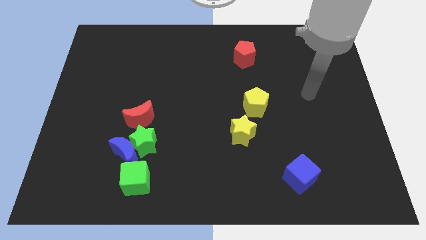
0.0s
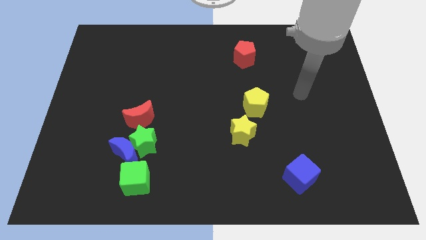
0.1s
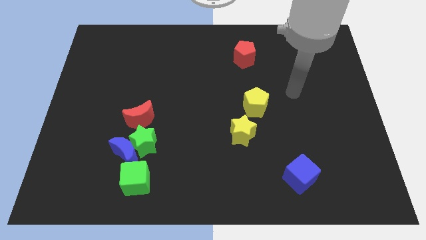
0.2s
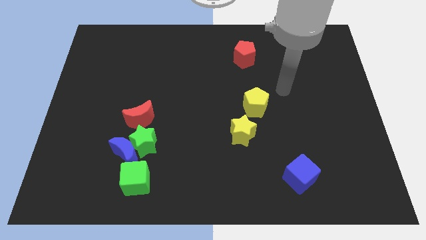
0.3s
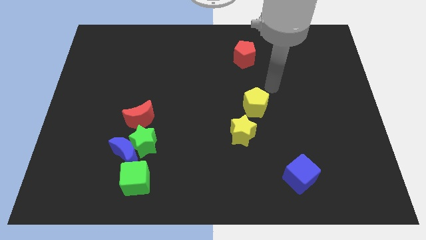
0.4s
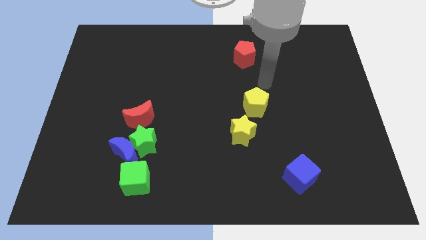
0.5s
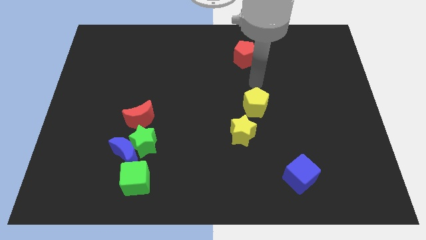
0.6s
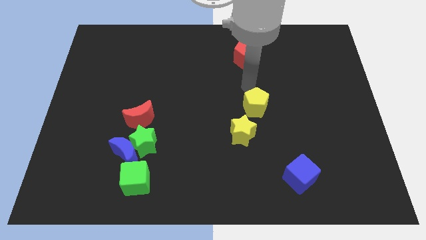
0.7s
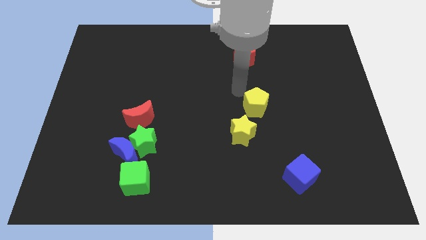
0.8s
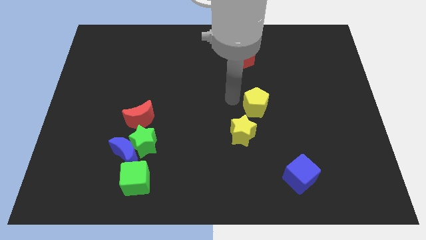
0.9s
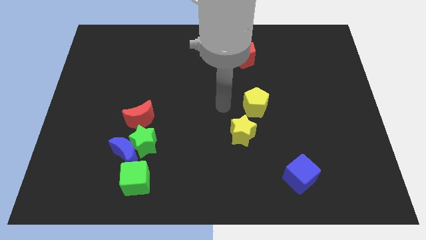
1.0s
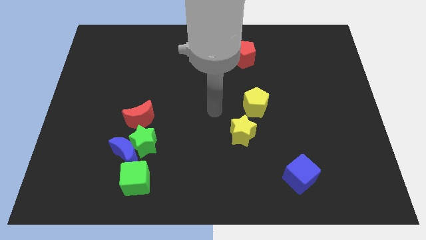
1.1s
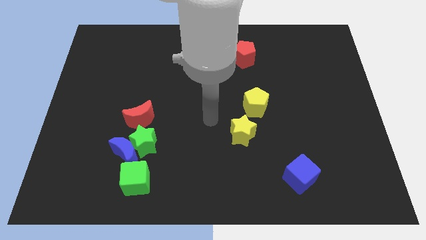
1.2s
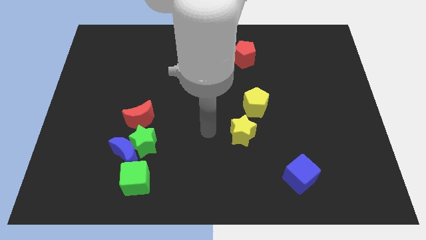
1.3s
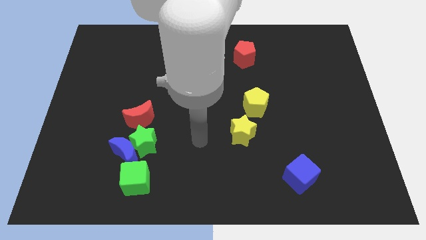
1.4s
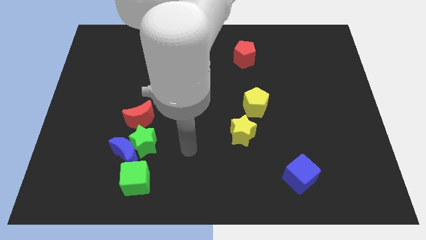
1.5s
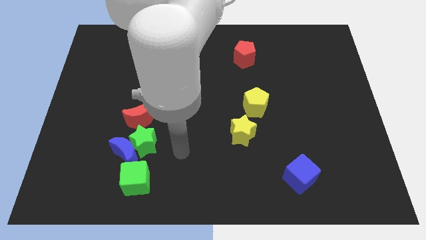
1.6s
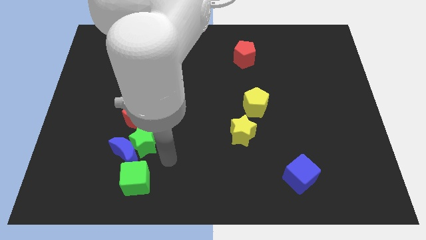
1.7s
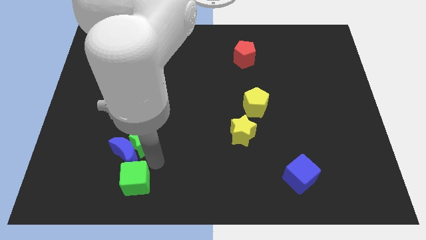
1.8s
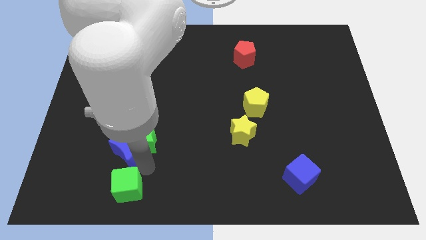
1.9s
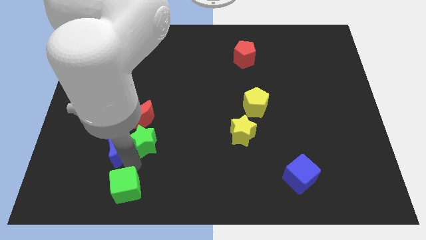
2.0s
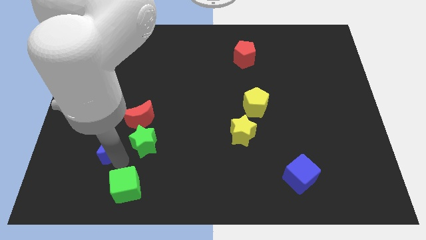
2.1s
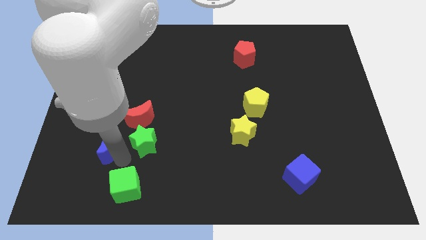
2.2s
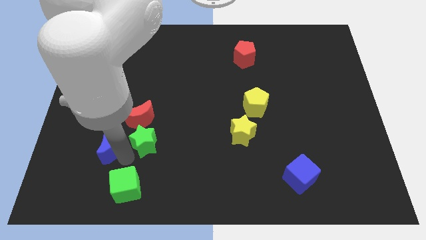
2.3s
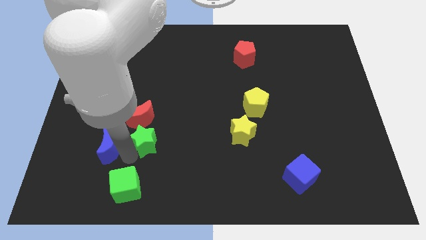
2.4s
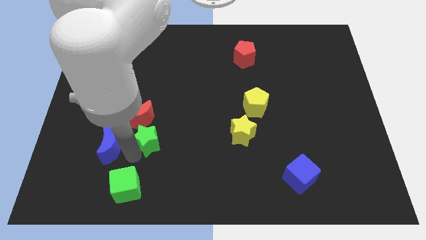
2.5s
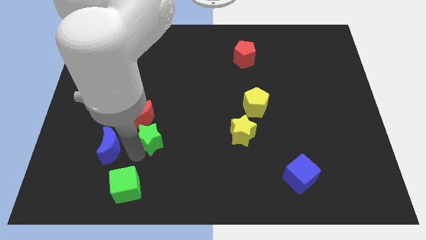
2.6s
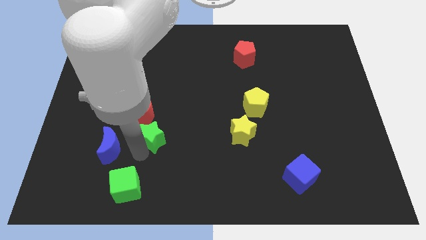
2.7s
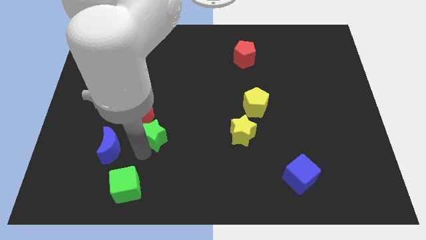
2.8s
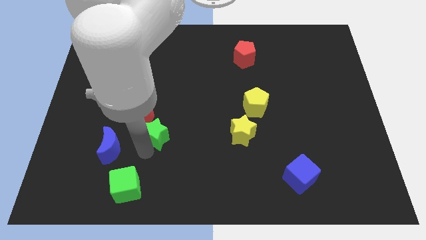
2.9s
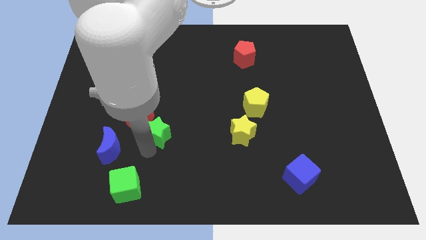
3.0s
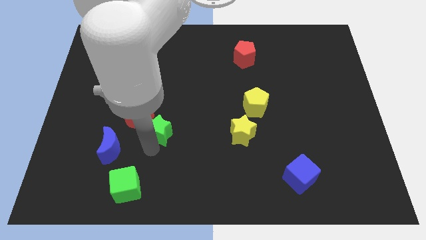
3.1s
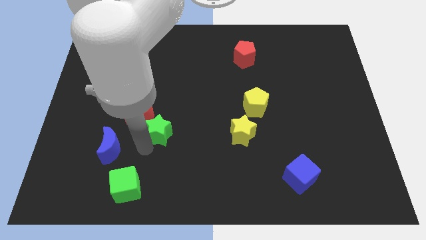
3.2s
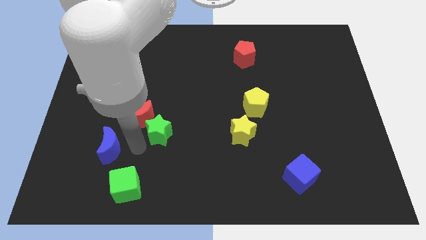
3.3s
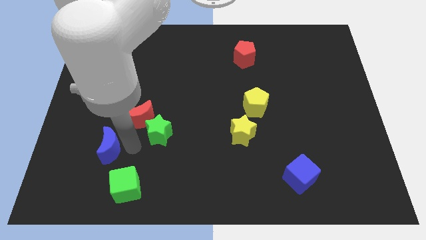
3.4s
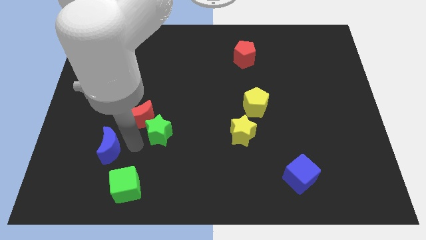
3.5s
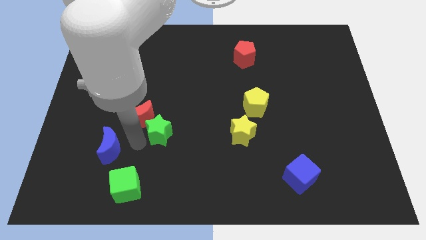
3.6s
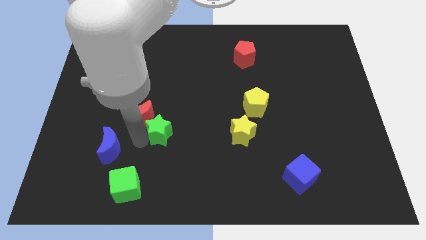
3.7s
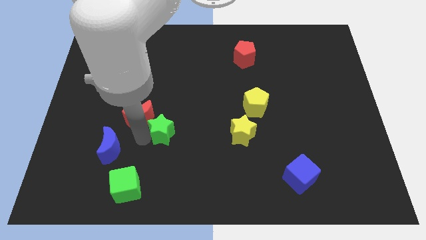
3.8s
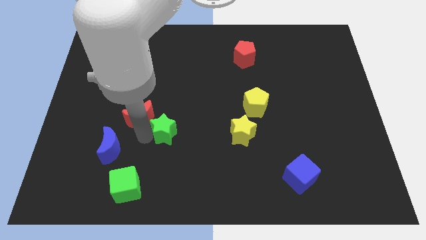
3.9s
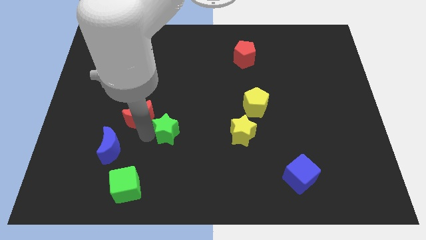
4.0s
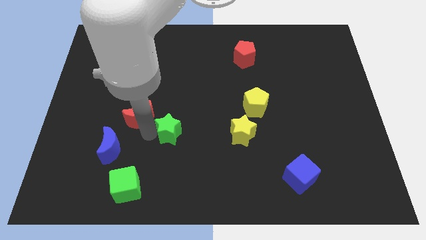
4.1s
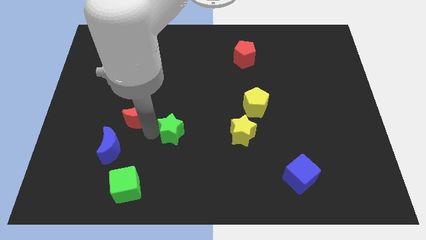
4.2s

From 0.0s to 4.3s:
pull the green star apart from the blue moon, red moon, and green cube

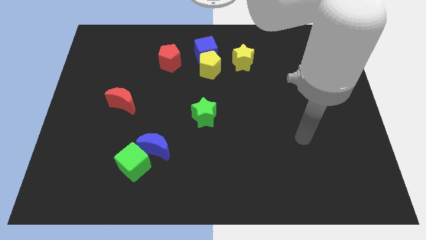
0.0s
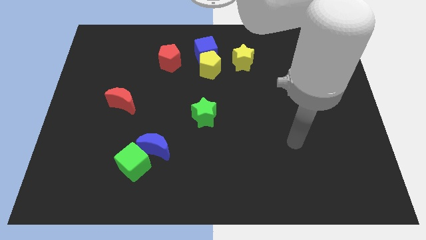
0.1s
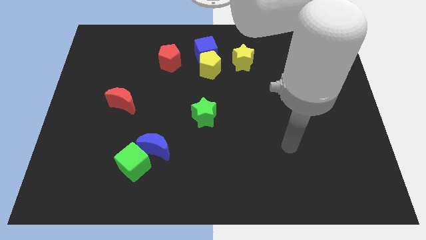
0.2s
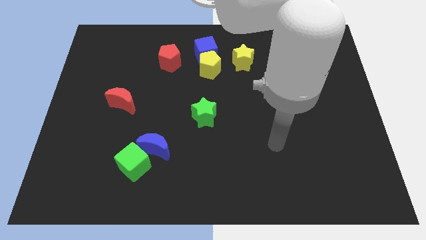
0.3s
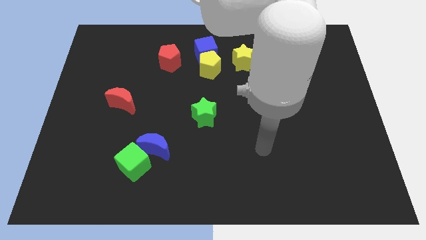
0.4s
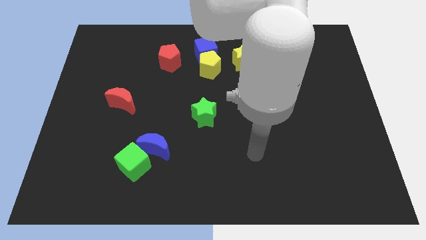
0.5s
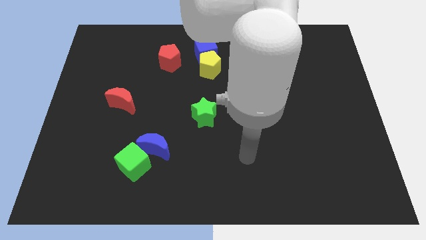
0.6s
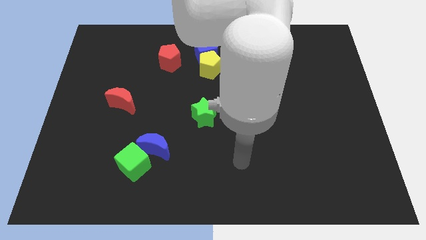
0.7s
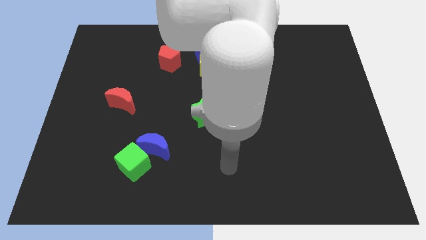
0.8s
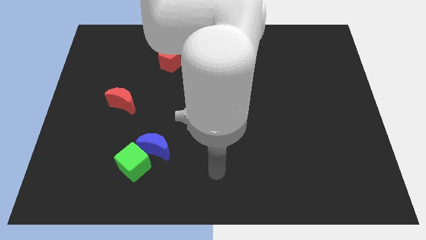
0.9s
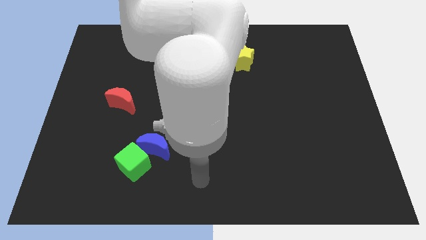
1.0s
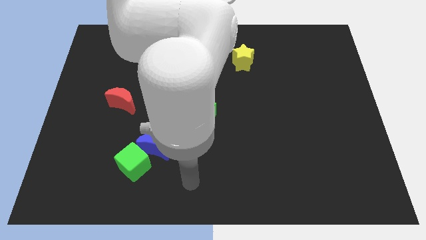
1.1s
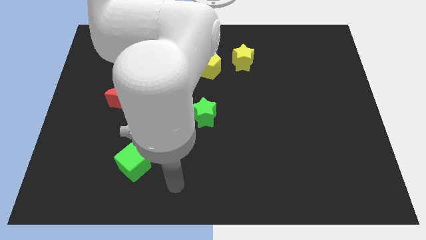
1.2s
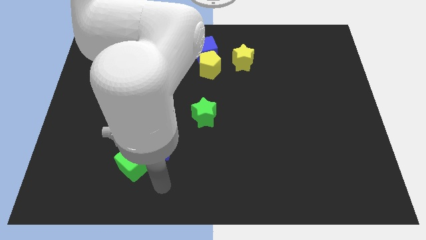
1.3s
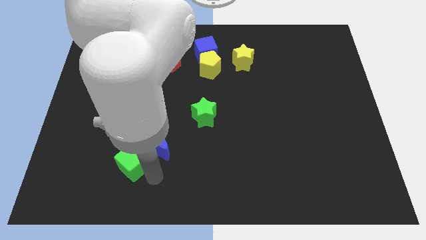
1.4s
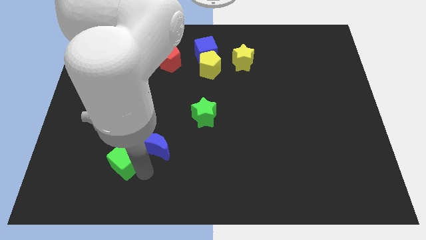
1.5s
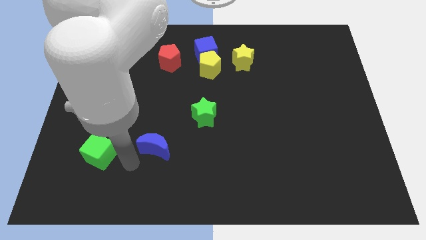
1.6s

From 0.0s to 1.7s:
separate the blue moon from the green cube

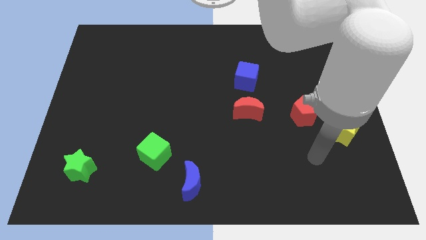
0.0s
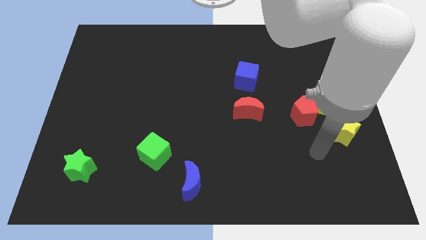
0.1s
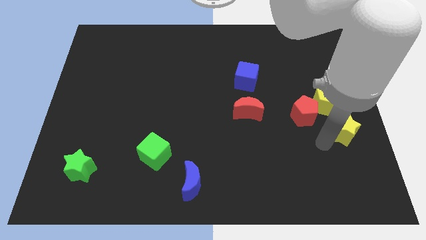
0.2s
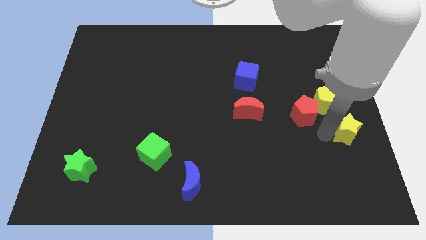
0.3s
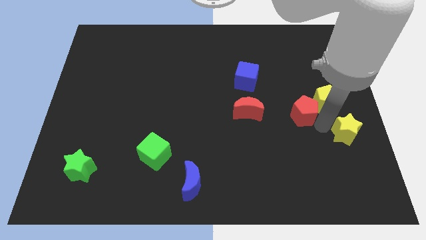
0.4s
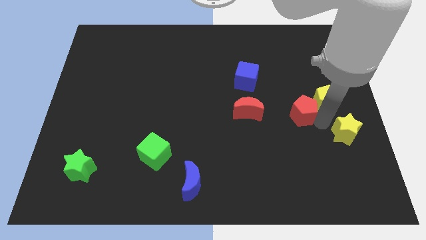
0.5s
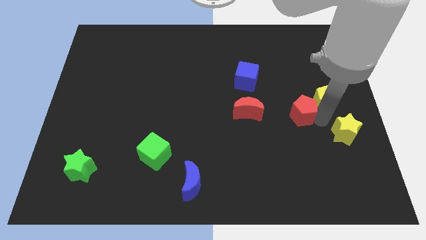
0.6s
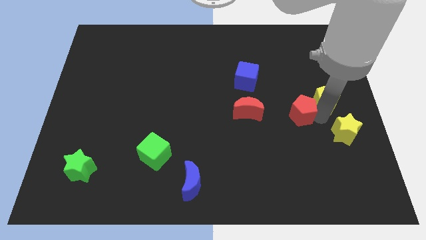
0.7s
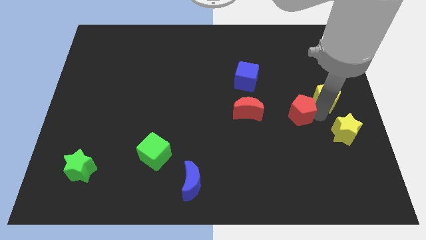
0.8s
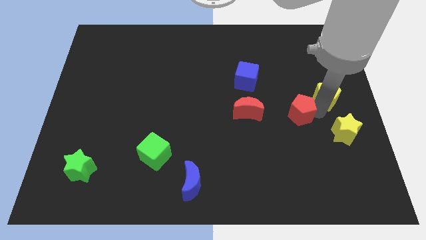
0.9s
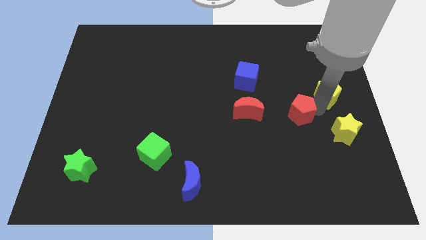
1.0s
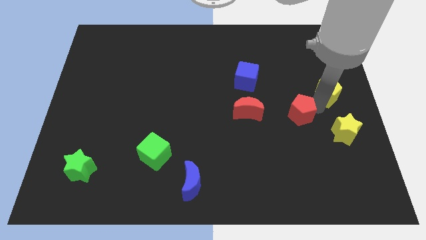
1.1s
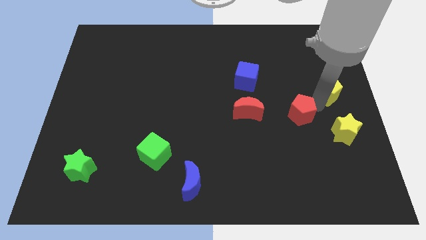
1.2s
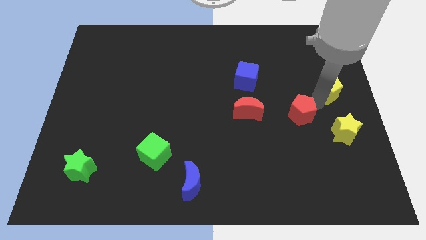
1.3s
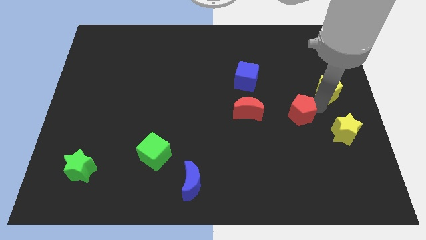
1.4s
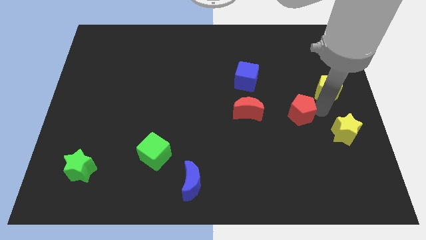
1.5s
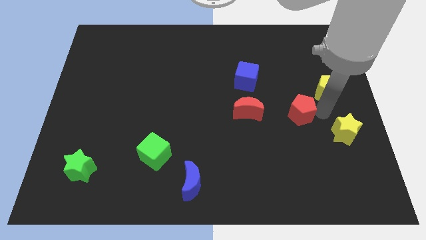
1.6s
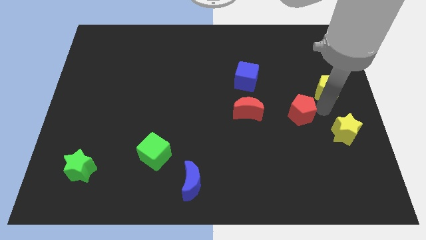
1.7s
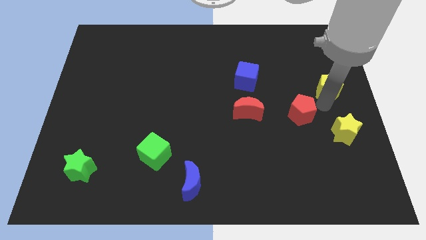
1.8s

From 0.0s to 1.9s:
move the yellow pentagon away from the red pentagon and yellow star

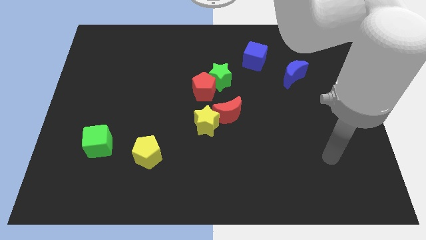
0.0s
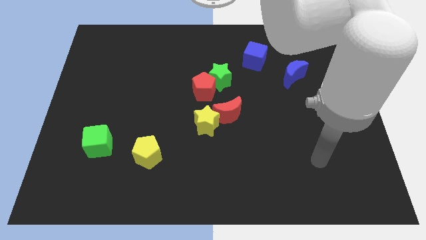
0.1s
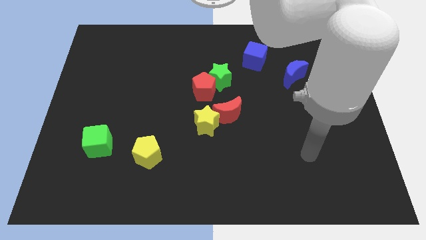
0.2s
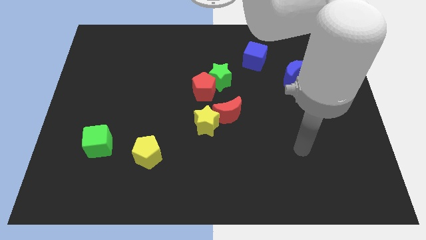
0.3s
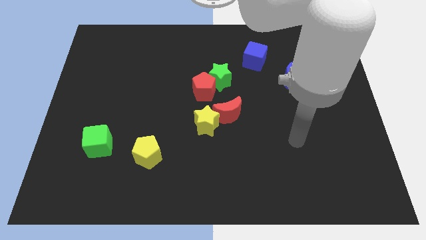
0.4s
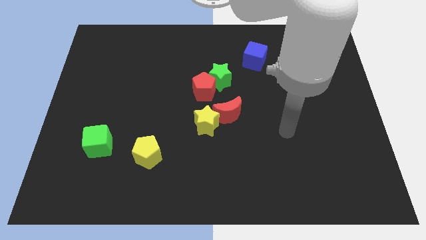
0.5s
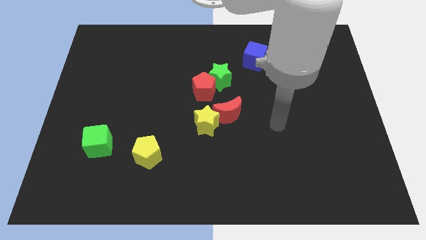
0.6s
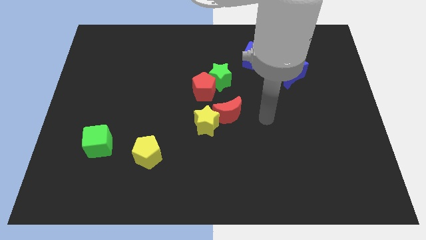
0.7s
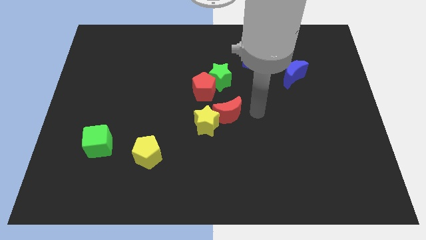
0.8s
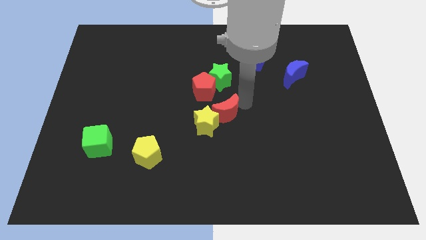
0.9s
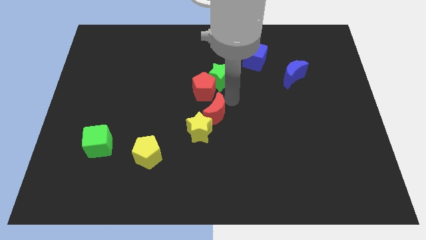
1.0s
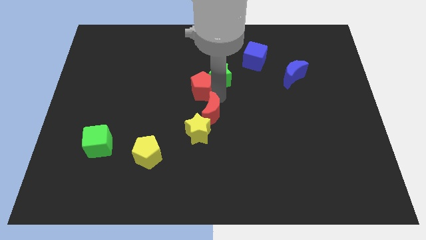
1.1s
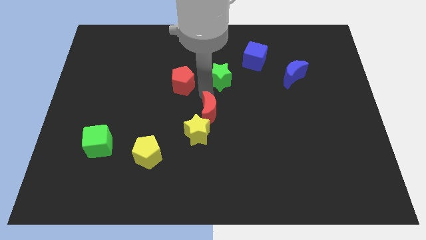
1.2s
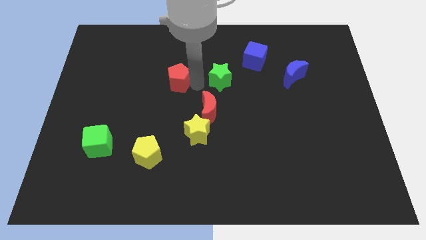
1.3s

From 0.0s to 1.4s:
separate the green star from the red pentagon

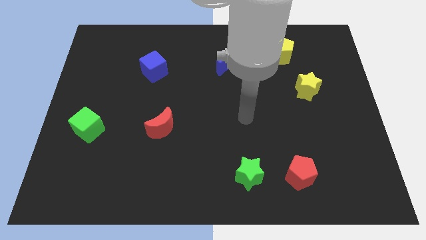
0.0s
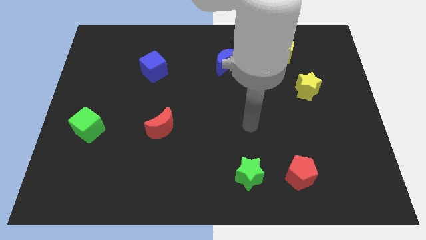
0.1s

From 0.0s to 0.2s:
pull the red pentagon apart from the green star
